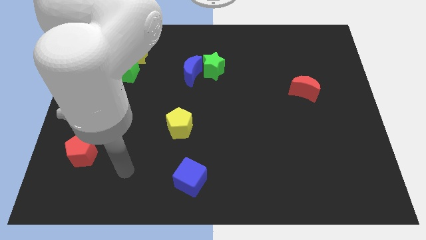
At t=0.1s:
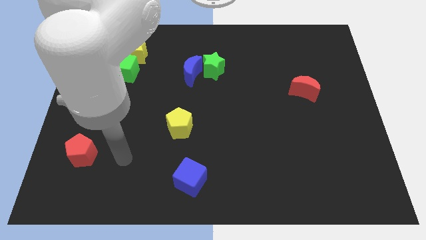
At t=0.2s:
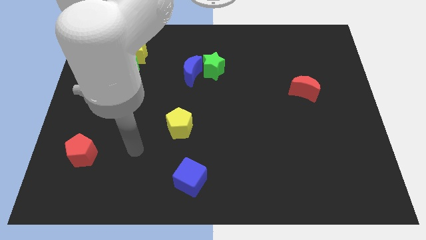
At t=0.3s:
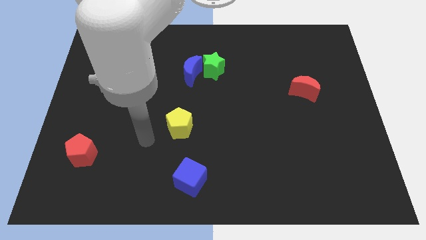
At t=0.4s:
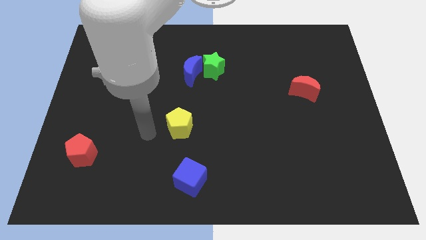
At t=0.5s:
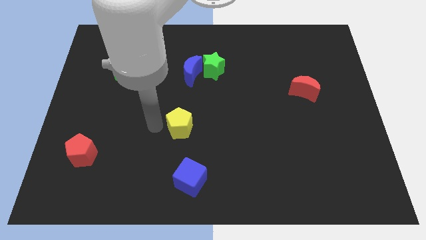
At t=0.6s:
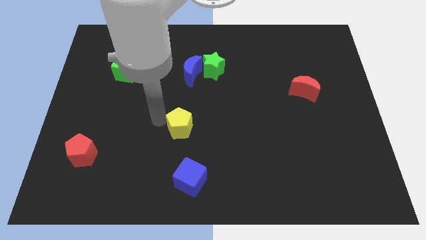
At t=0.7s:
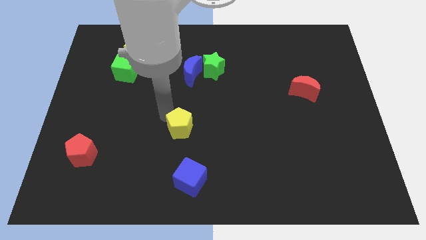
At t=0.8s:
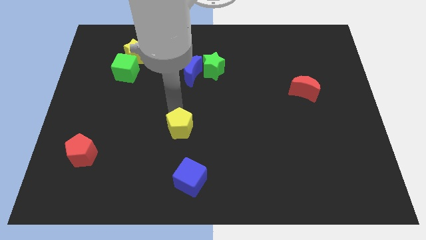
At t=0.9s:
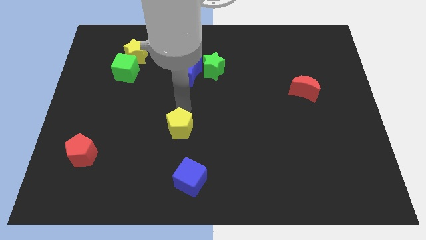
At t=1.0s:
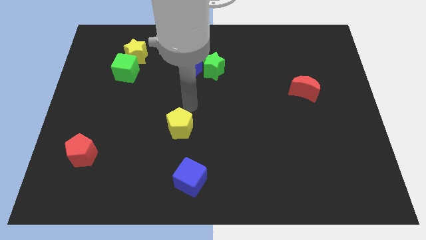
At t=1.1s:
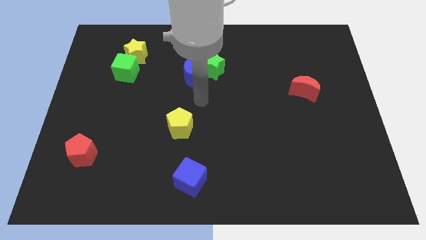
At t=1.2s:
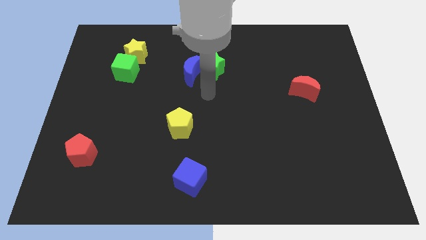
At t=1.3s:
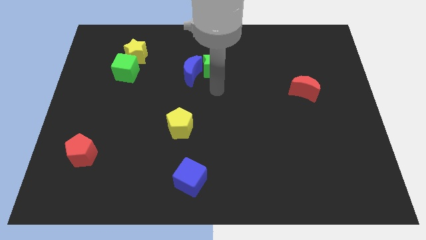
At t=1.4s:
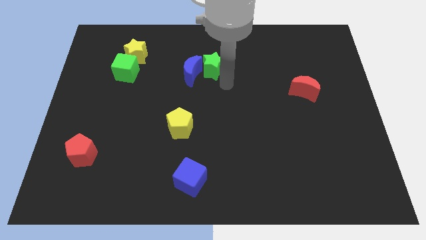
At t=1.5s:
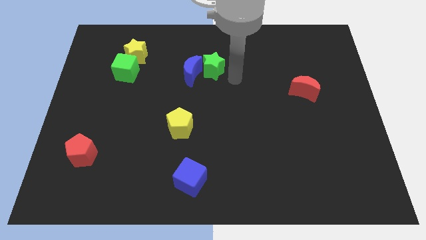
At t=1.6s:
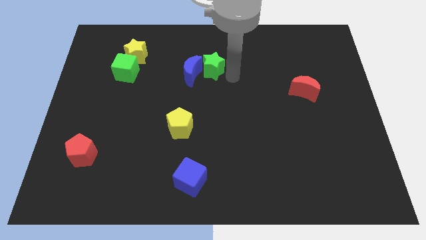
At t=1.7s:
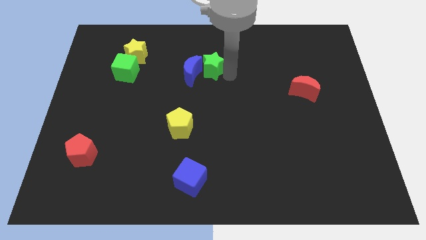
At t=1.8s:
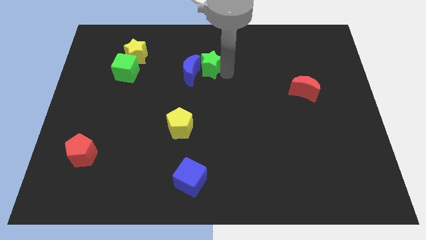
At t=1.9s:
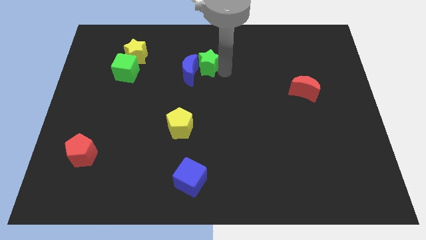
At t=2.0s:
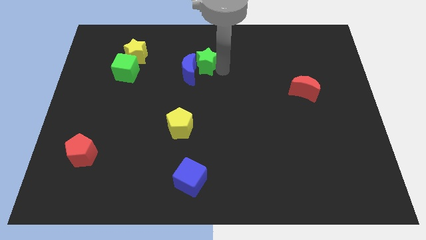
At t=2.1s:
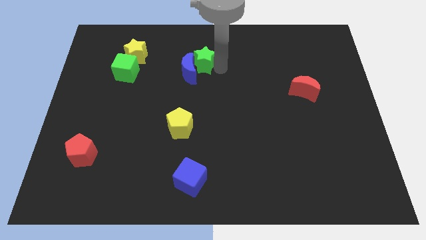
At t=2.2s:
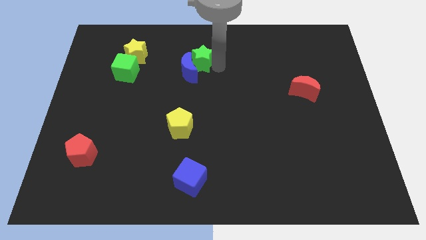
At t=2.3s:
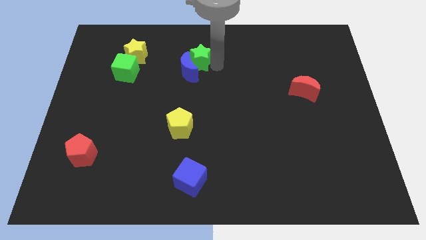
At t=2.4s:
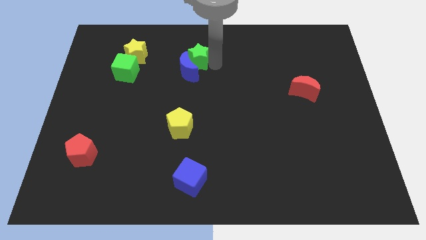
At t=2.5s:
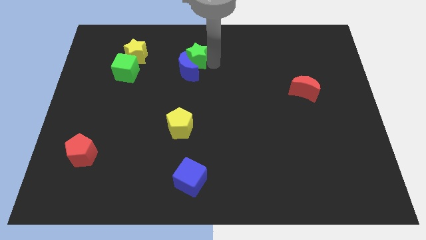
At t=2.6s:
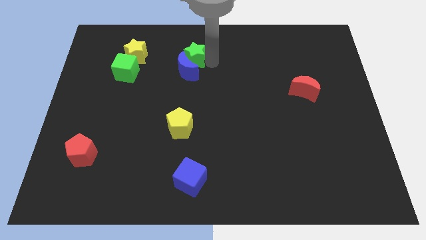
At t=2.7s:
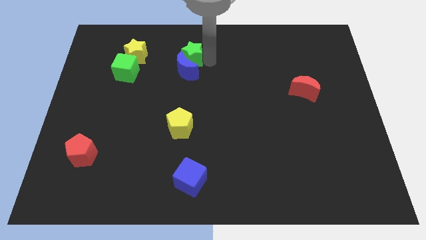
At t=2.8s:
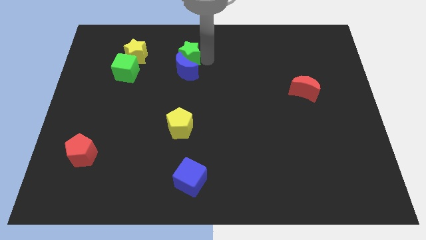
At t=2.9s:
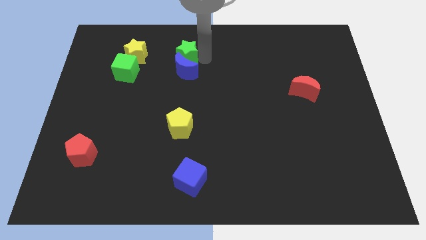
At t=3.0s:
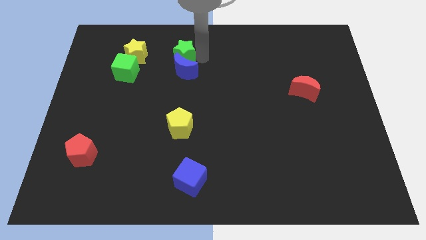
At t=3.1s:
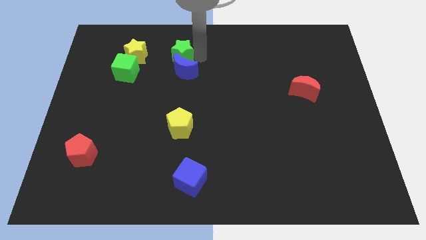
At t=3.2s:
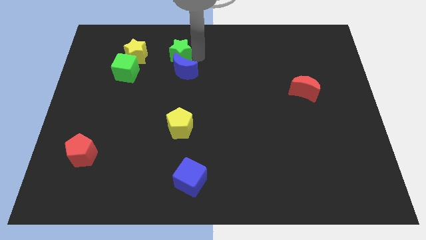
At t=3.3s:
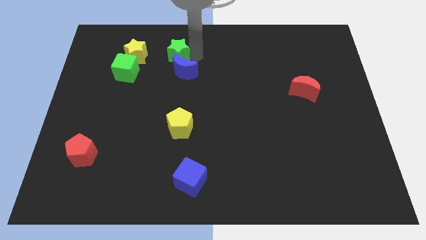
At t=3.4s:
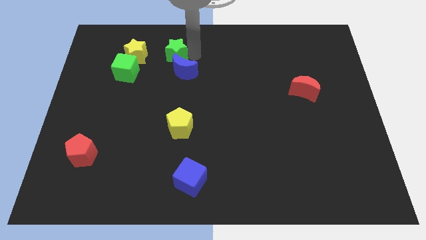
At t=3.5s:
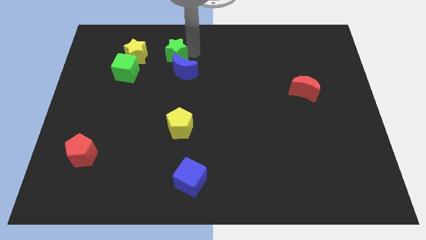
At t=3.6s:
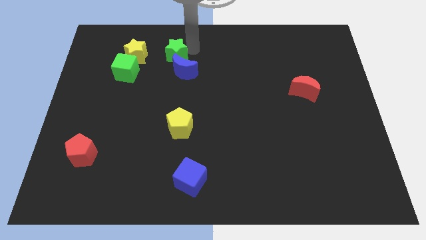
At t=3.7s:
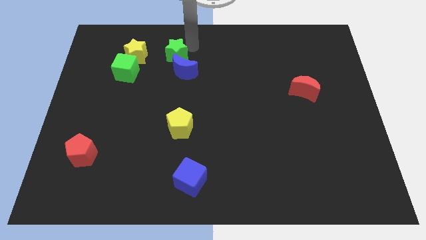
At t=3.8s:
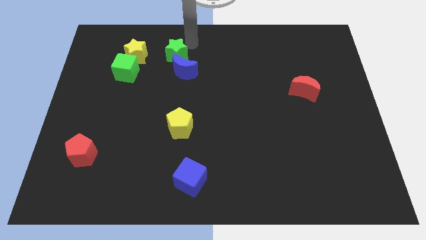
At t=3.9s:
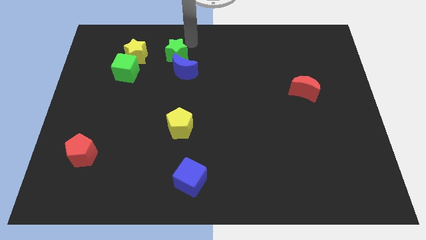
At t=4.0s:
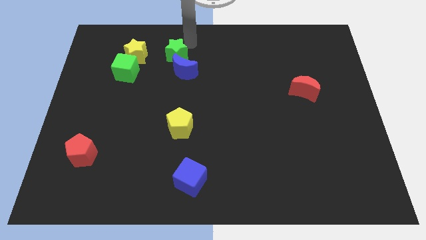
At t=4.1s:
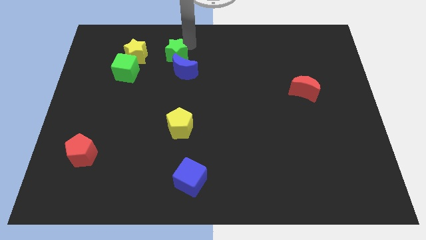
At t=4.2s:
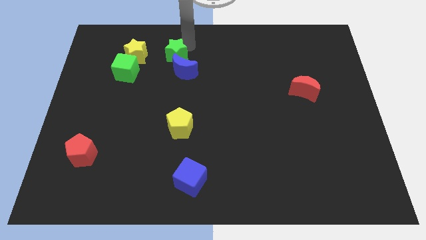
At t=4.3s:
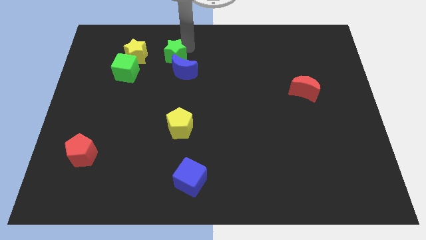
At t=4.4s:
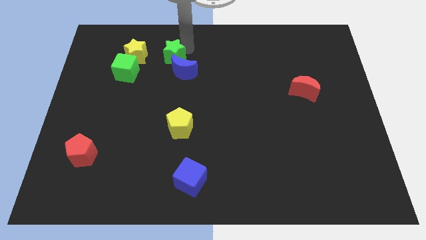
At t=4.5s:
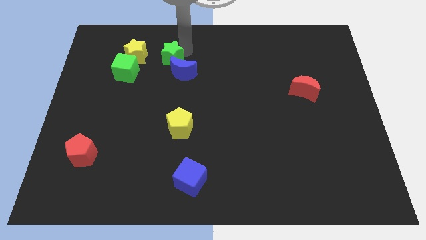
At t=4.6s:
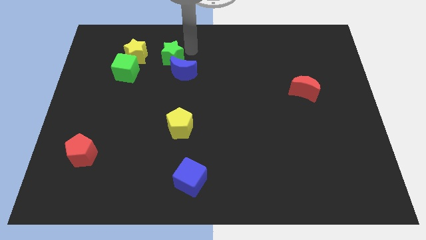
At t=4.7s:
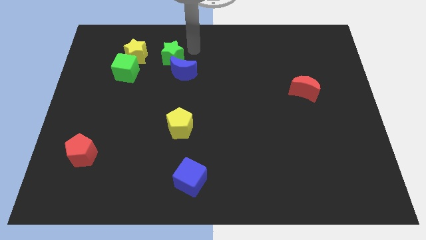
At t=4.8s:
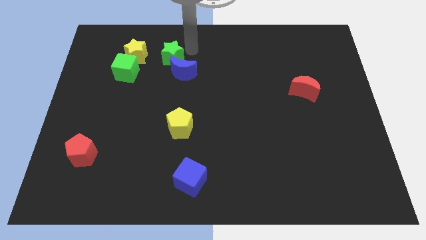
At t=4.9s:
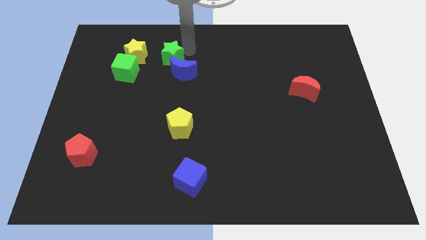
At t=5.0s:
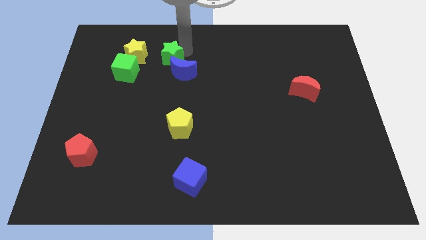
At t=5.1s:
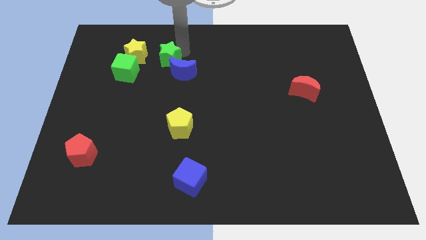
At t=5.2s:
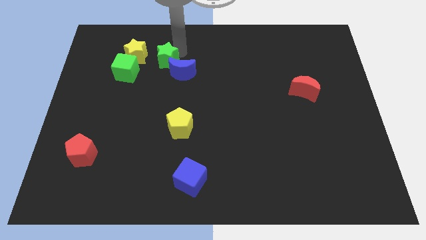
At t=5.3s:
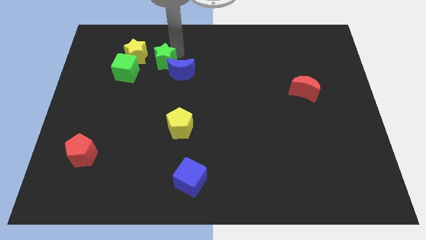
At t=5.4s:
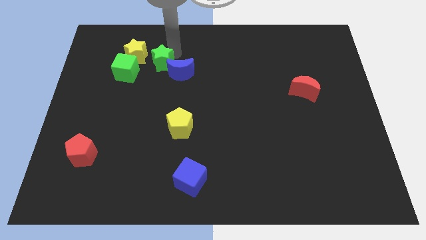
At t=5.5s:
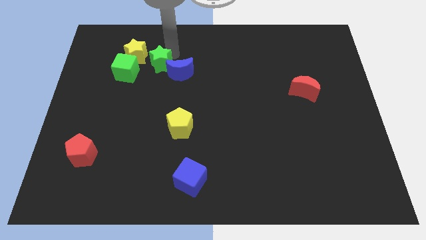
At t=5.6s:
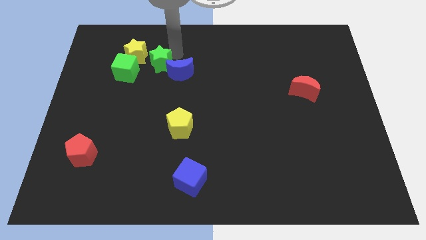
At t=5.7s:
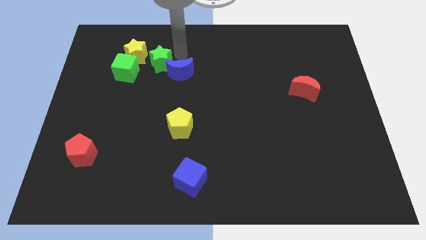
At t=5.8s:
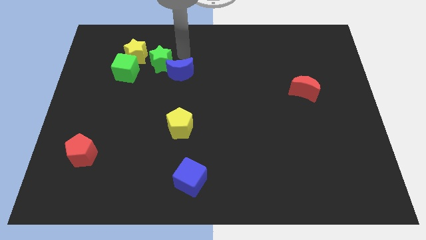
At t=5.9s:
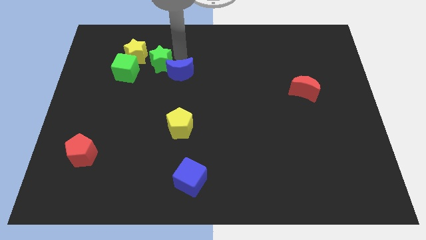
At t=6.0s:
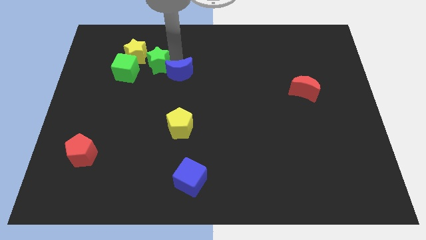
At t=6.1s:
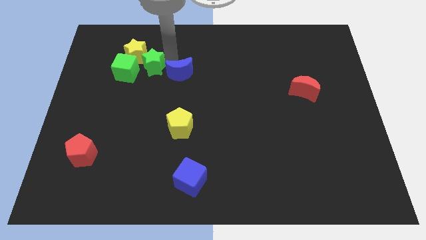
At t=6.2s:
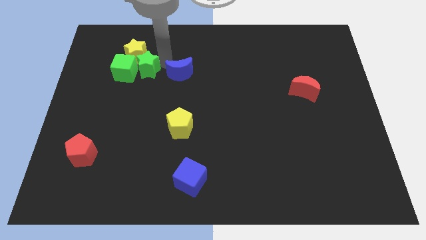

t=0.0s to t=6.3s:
push the green star to the green cube

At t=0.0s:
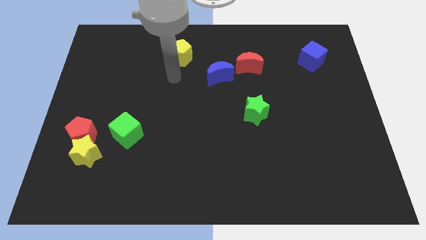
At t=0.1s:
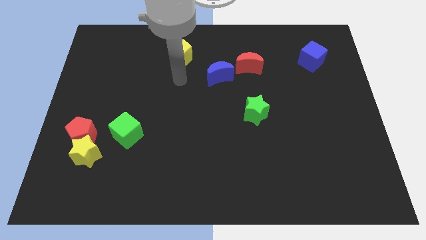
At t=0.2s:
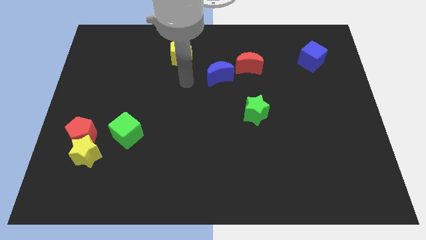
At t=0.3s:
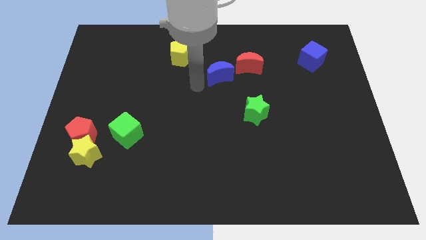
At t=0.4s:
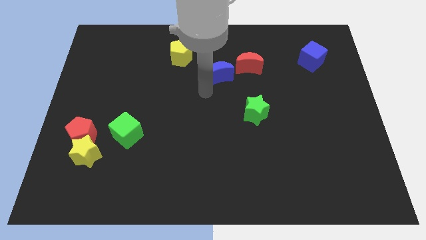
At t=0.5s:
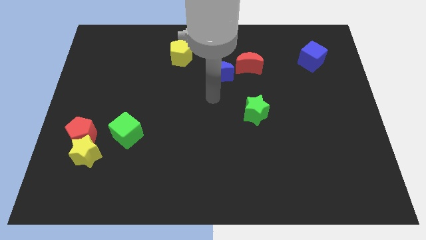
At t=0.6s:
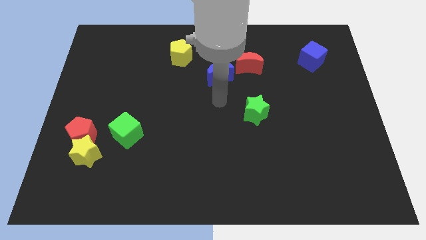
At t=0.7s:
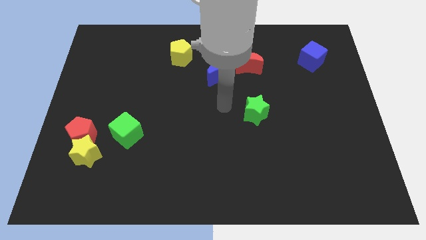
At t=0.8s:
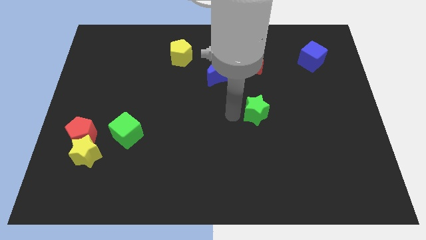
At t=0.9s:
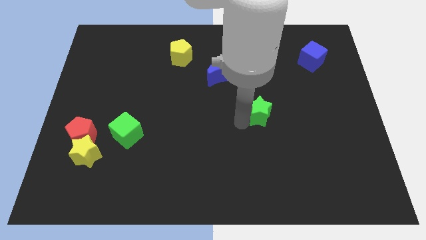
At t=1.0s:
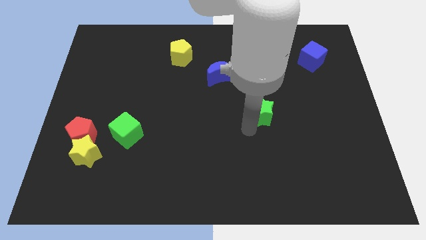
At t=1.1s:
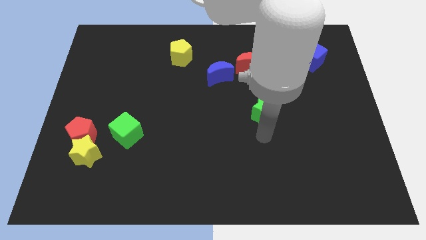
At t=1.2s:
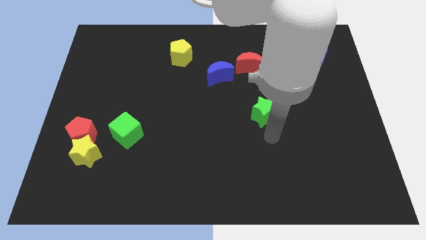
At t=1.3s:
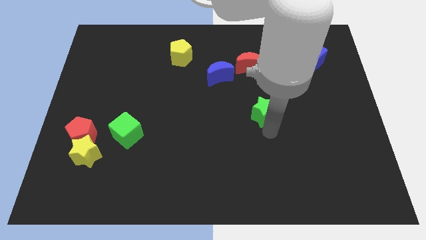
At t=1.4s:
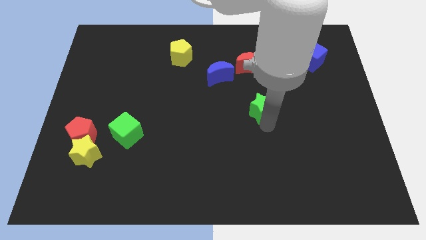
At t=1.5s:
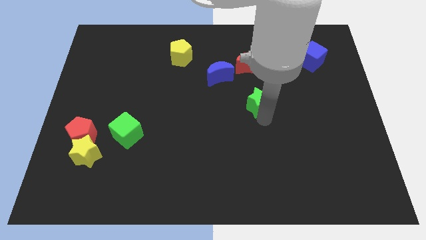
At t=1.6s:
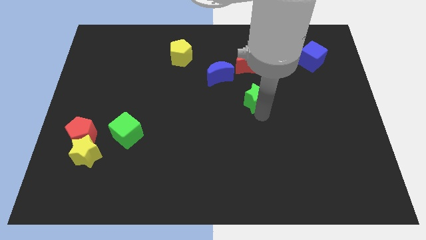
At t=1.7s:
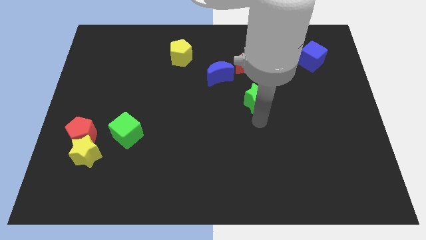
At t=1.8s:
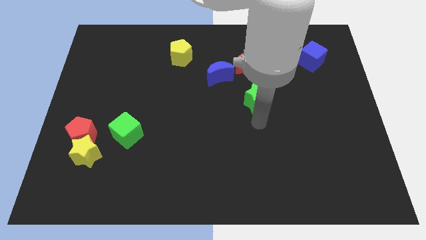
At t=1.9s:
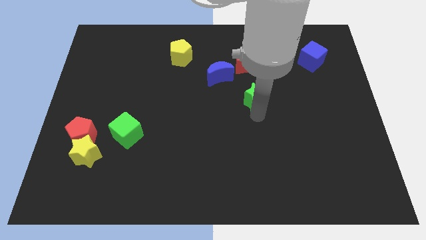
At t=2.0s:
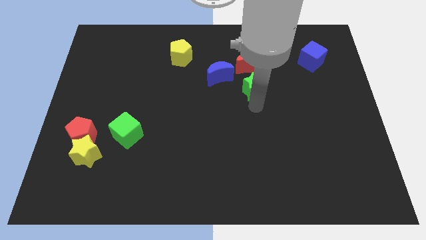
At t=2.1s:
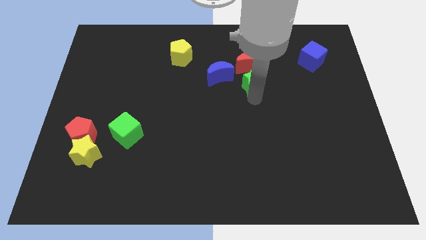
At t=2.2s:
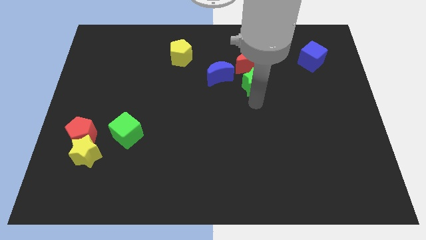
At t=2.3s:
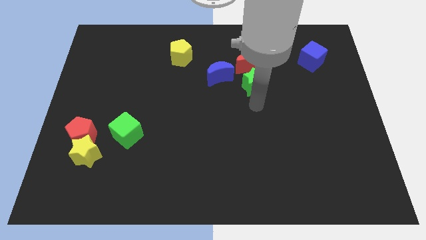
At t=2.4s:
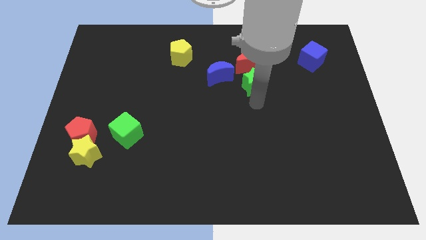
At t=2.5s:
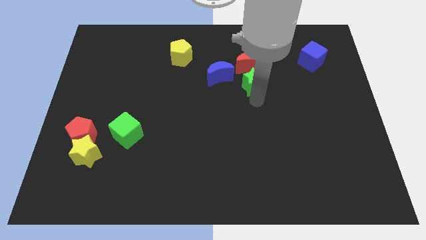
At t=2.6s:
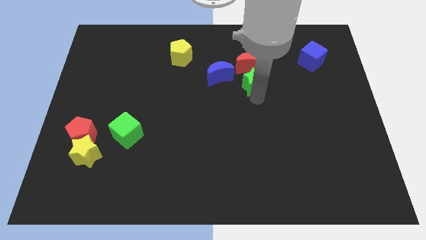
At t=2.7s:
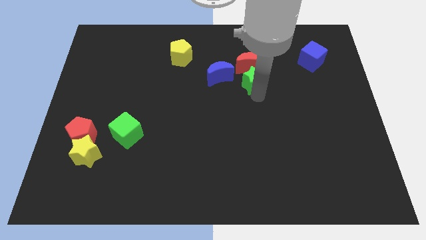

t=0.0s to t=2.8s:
slide the green star towards the red moon
